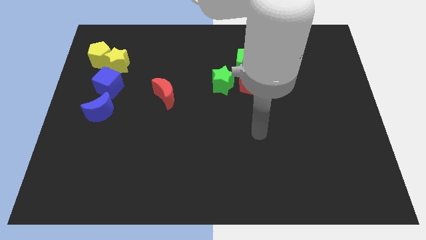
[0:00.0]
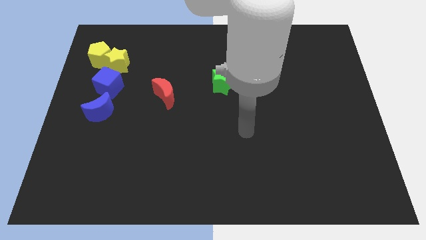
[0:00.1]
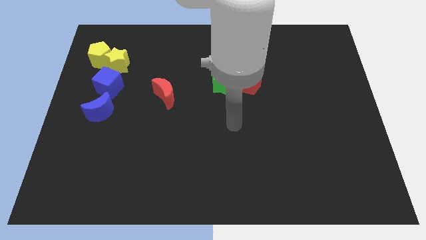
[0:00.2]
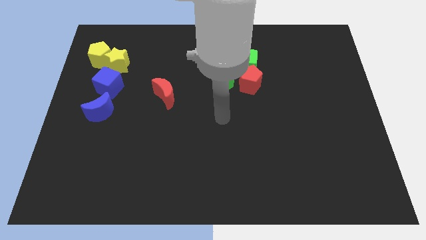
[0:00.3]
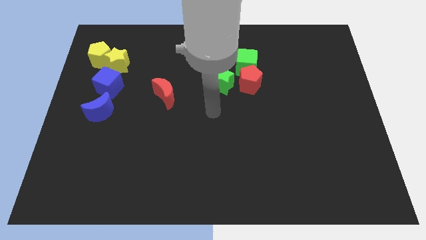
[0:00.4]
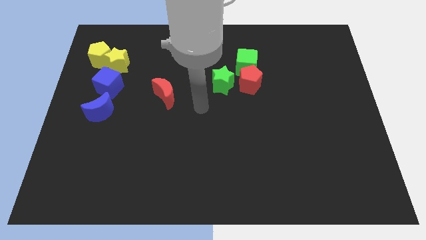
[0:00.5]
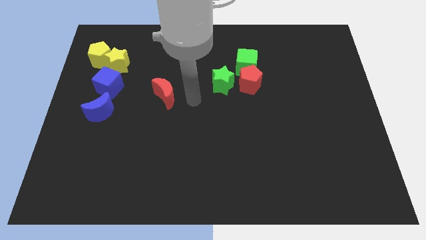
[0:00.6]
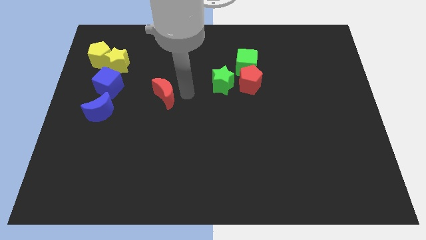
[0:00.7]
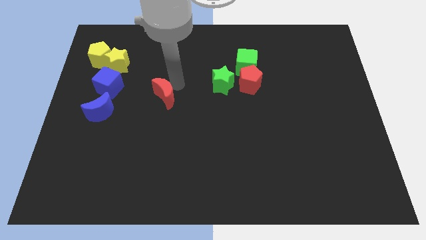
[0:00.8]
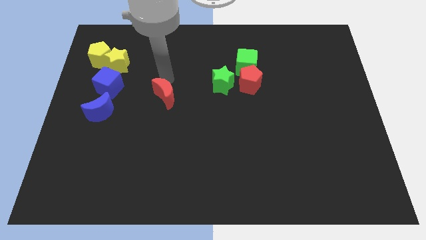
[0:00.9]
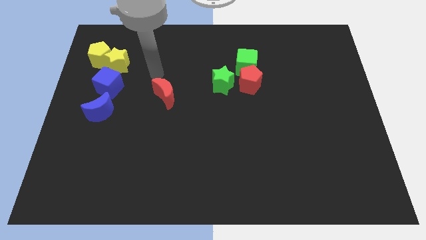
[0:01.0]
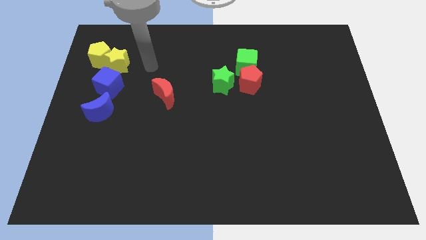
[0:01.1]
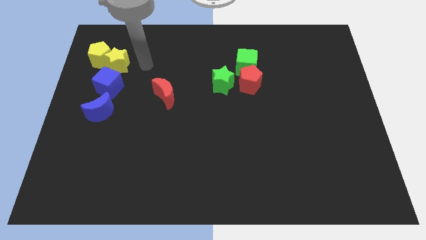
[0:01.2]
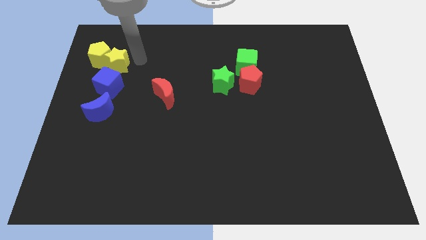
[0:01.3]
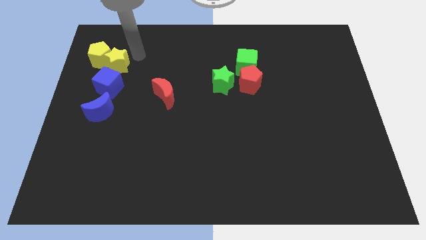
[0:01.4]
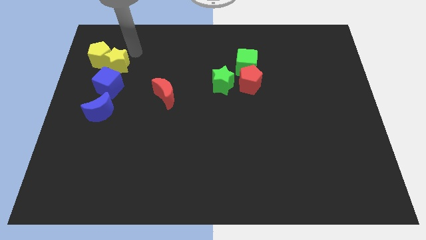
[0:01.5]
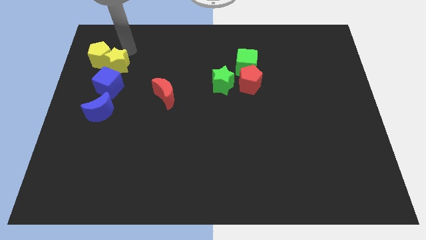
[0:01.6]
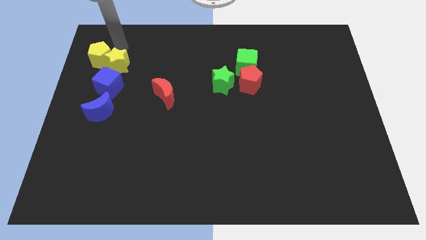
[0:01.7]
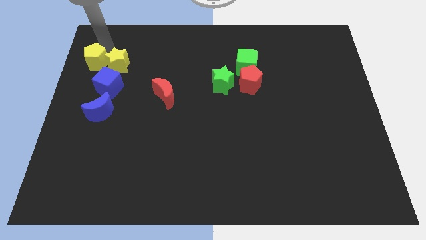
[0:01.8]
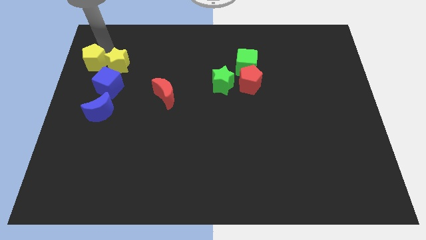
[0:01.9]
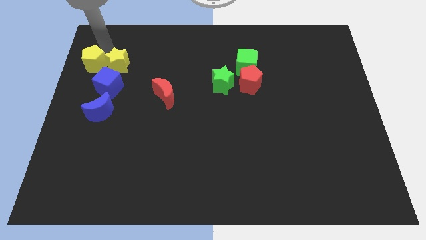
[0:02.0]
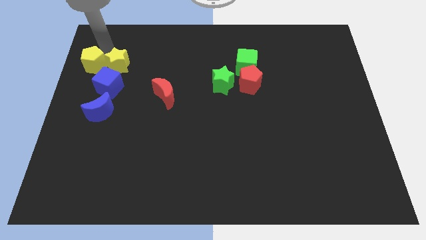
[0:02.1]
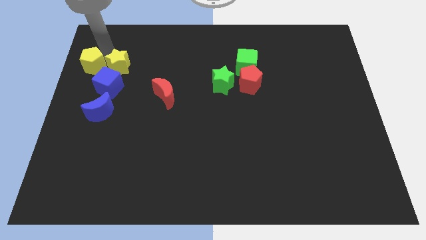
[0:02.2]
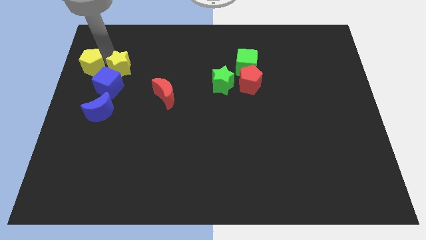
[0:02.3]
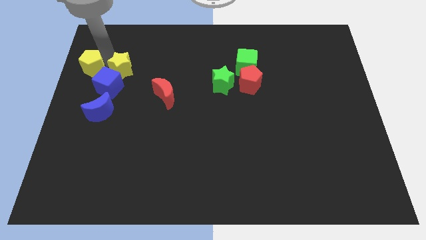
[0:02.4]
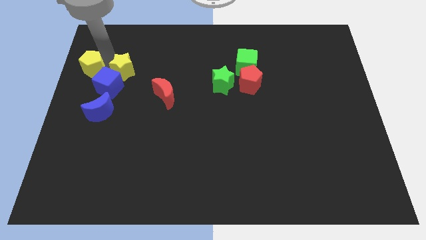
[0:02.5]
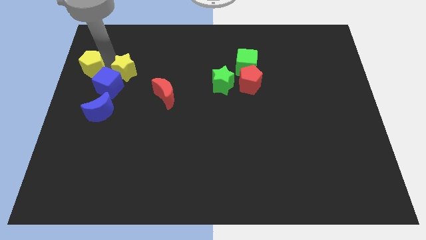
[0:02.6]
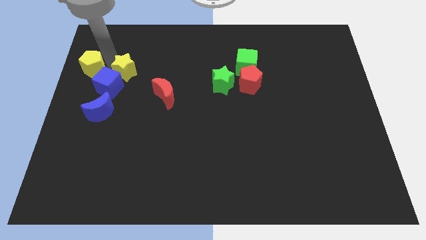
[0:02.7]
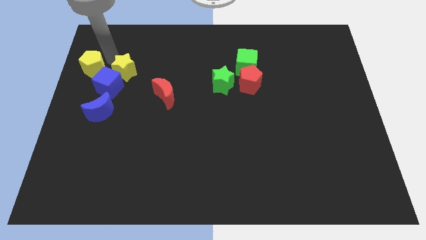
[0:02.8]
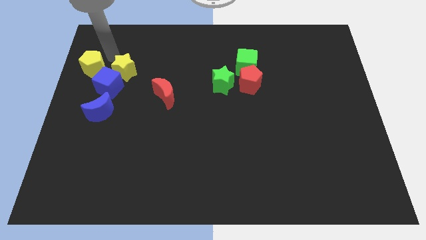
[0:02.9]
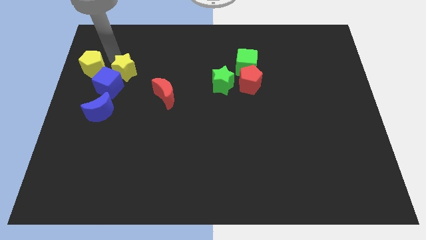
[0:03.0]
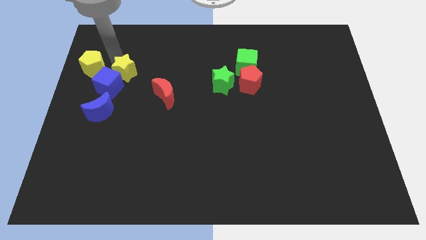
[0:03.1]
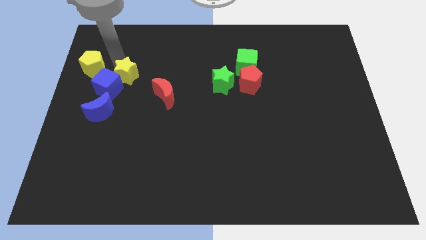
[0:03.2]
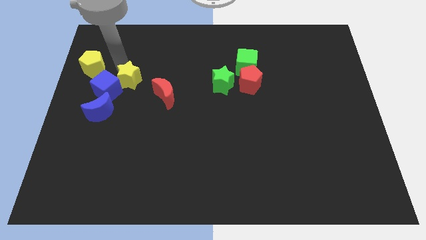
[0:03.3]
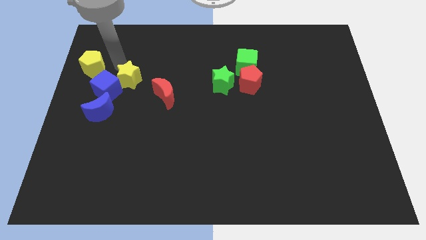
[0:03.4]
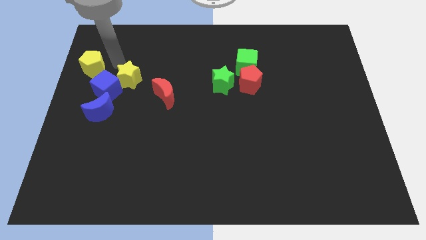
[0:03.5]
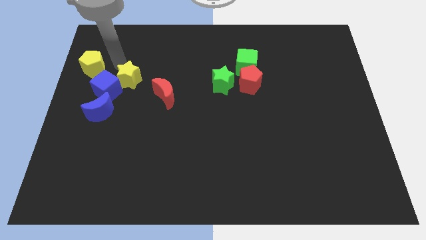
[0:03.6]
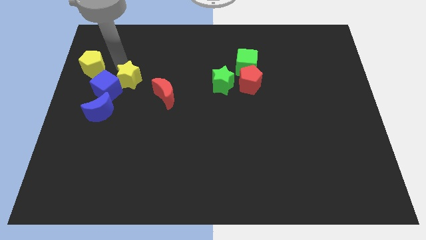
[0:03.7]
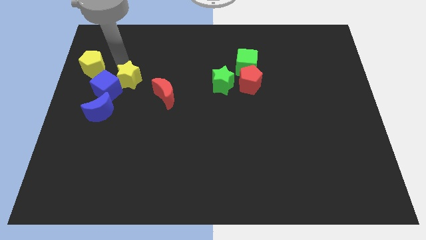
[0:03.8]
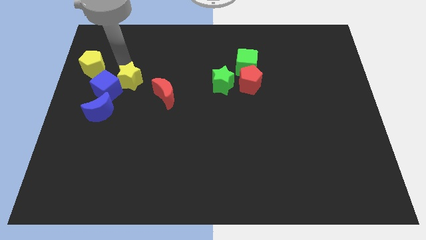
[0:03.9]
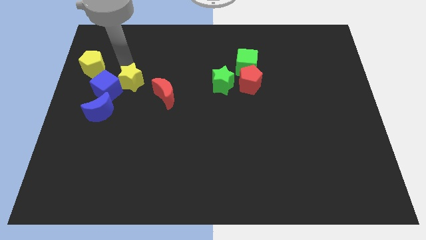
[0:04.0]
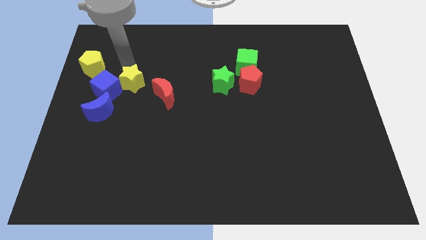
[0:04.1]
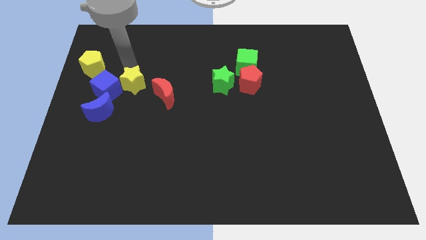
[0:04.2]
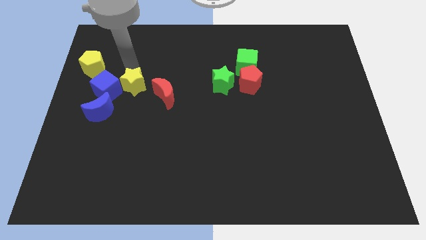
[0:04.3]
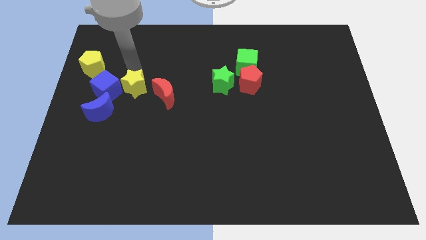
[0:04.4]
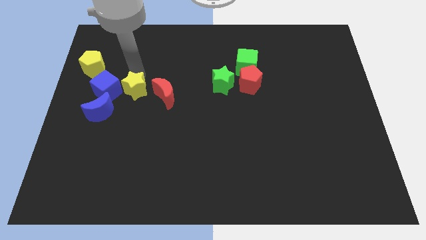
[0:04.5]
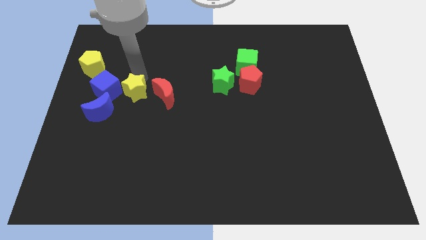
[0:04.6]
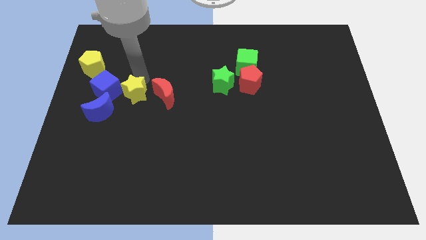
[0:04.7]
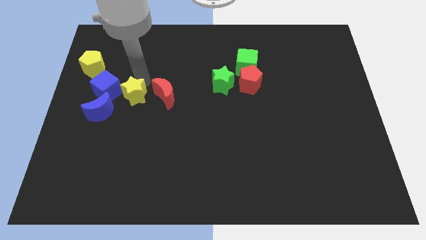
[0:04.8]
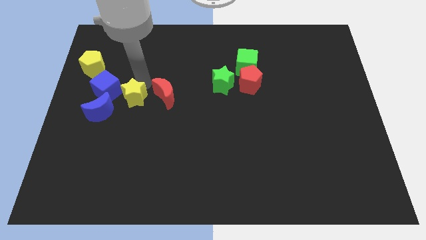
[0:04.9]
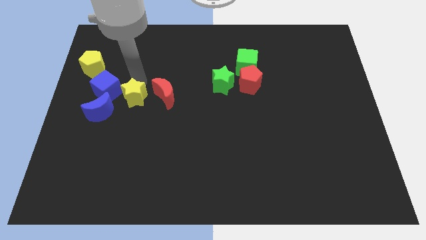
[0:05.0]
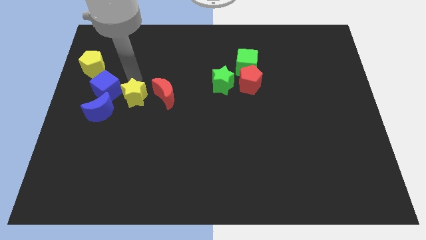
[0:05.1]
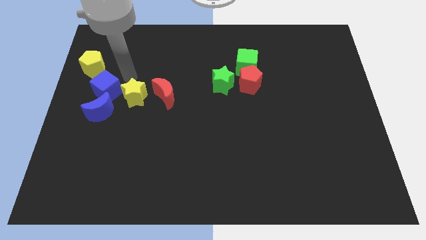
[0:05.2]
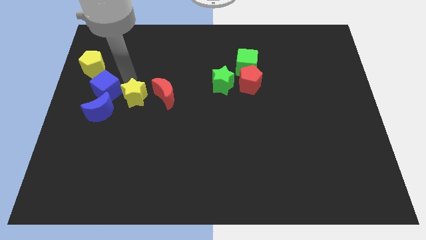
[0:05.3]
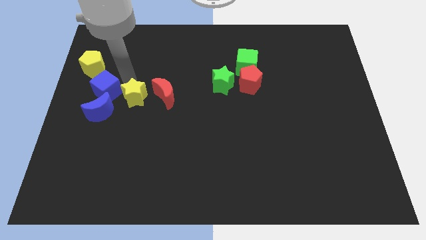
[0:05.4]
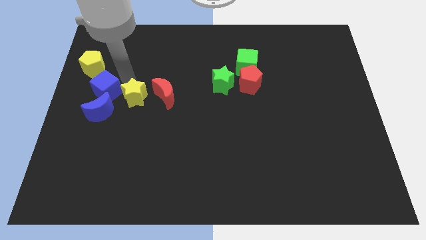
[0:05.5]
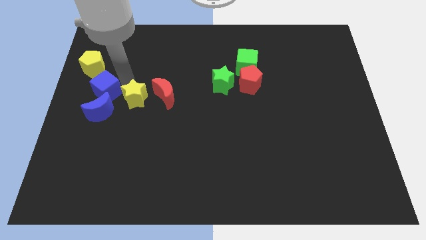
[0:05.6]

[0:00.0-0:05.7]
push the yellow star to the bottom left of the red moon

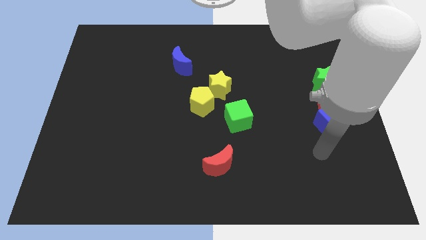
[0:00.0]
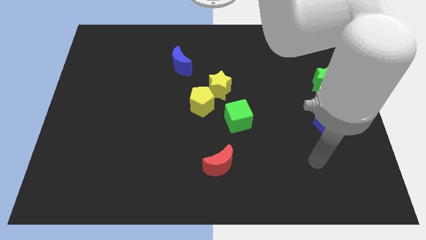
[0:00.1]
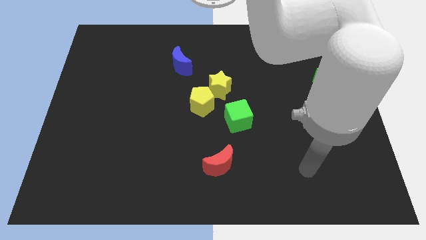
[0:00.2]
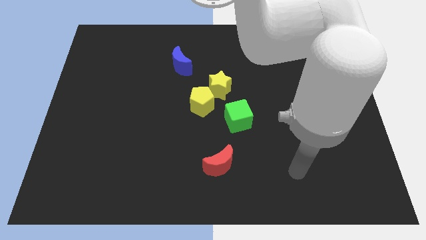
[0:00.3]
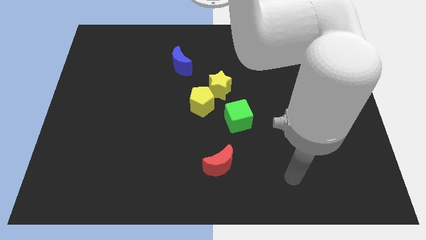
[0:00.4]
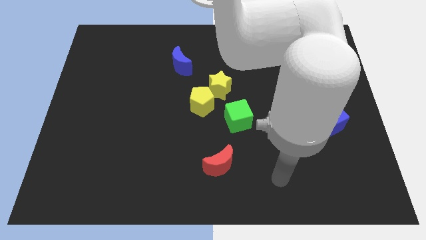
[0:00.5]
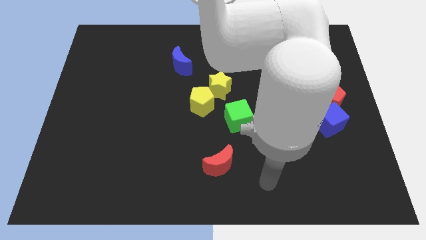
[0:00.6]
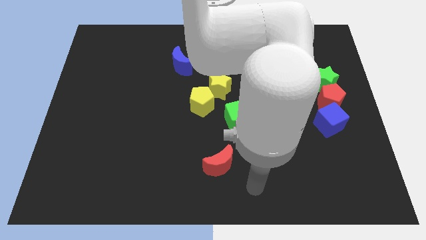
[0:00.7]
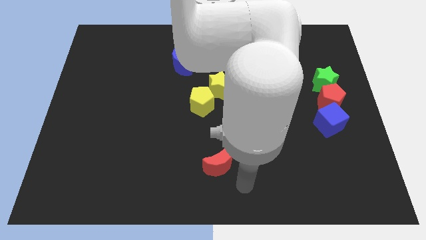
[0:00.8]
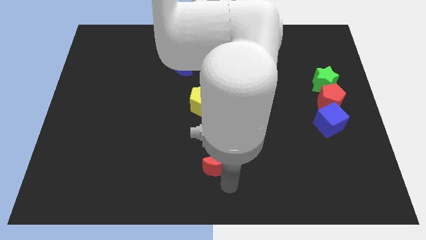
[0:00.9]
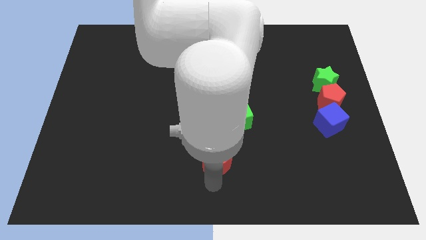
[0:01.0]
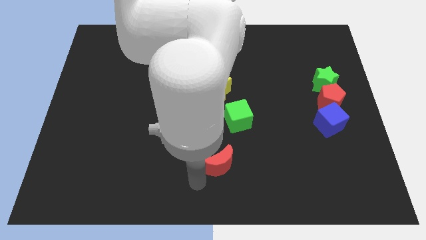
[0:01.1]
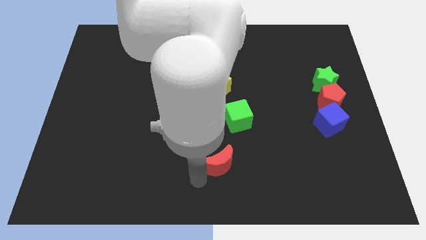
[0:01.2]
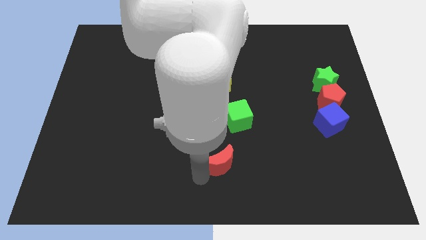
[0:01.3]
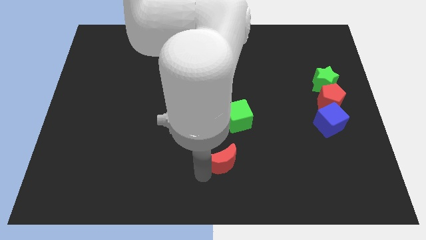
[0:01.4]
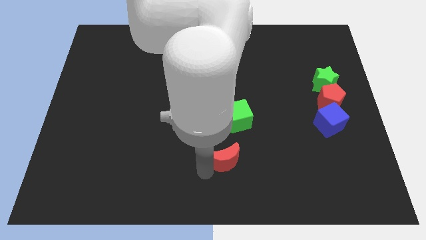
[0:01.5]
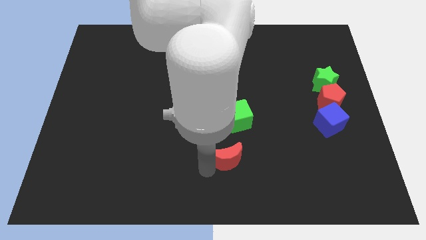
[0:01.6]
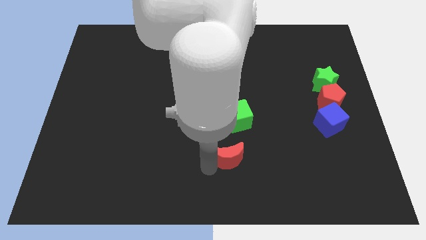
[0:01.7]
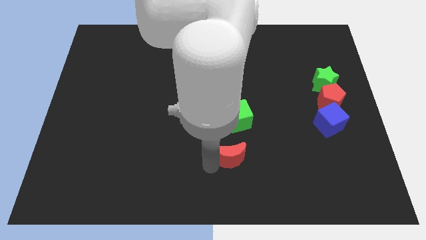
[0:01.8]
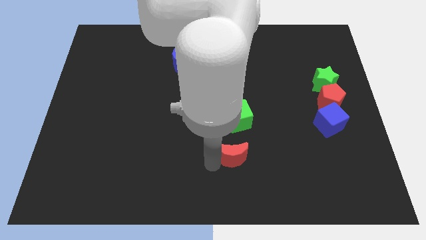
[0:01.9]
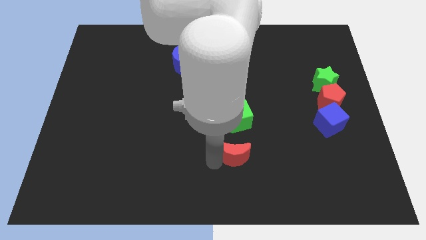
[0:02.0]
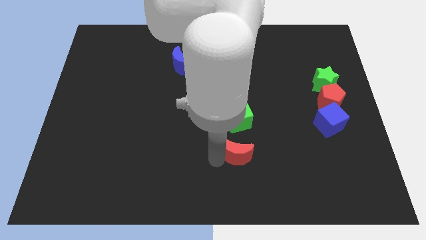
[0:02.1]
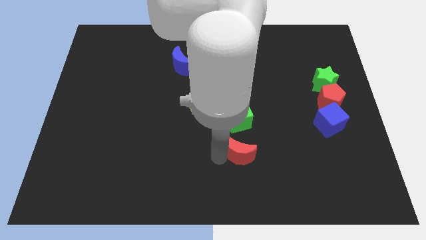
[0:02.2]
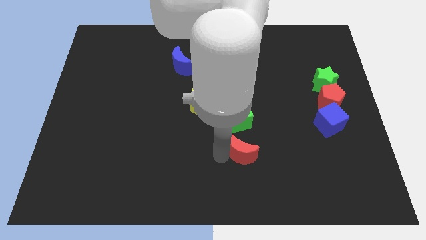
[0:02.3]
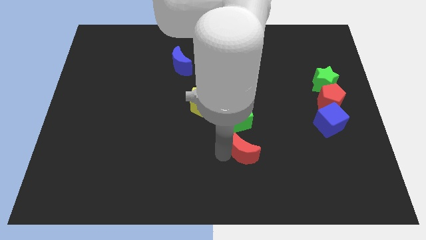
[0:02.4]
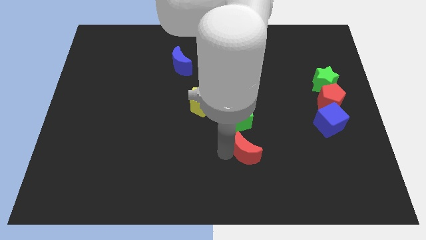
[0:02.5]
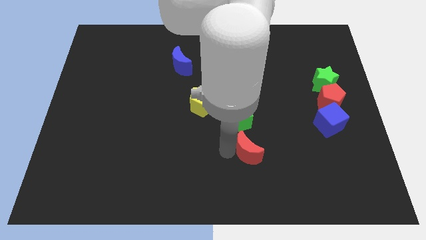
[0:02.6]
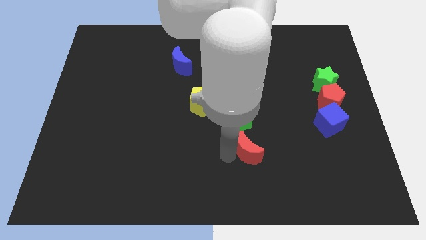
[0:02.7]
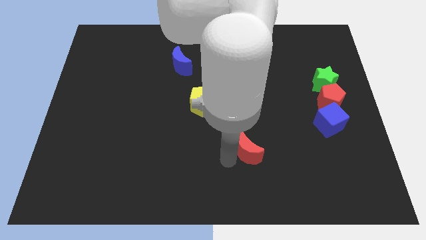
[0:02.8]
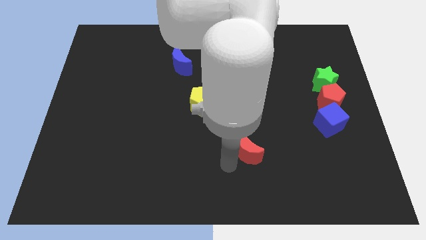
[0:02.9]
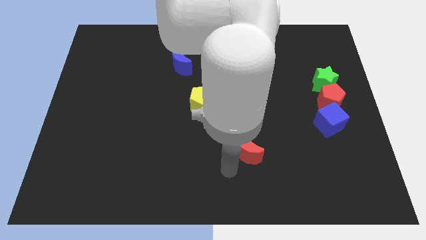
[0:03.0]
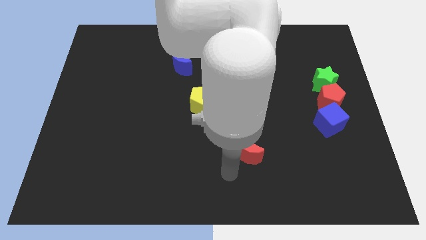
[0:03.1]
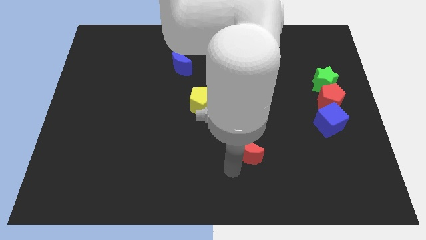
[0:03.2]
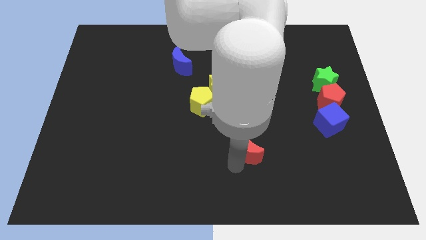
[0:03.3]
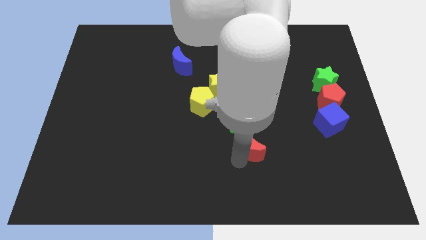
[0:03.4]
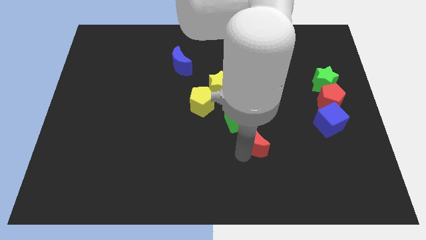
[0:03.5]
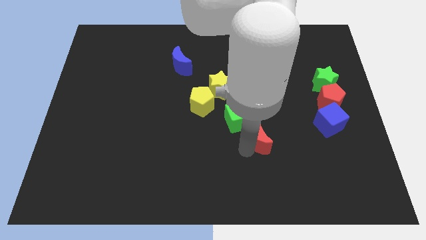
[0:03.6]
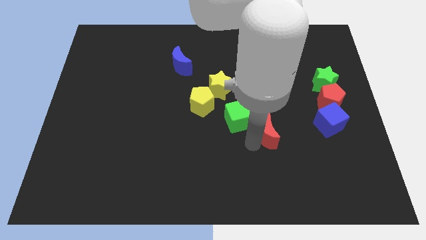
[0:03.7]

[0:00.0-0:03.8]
move the red moon to the right side of the green cube
